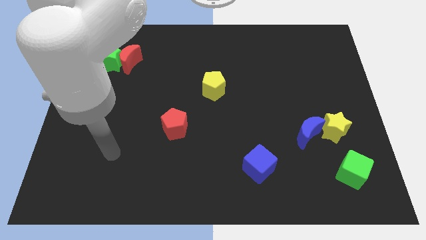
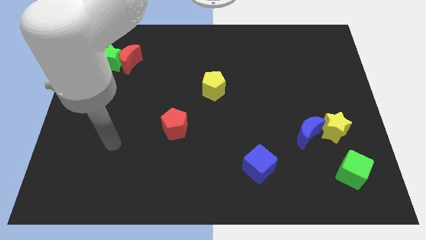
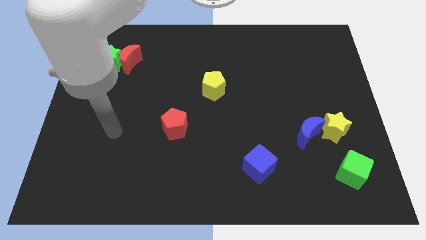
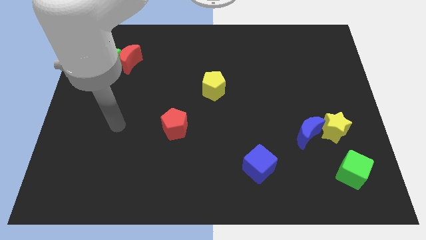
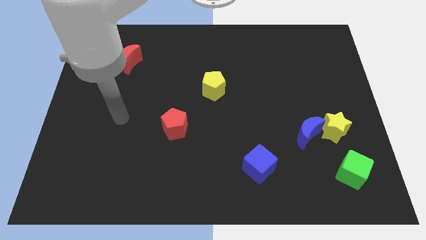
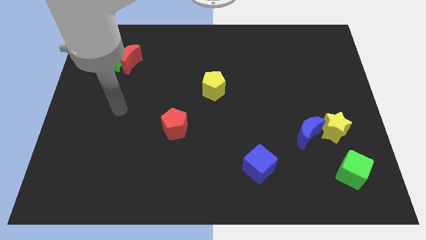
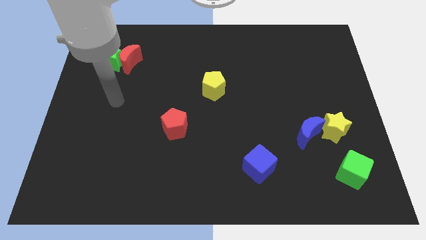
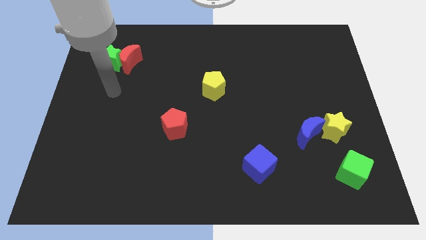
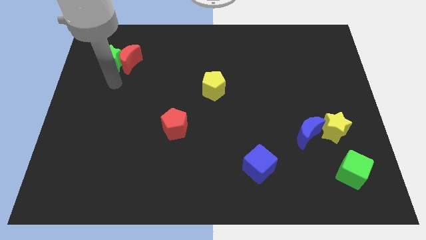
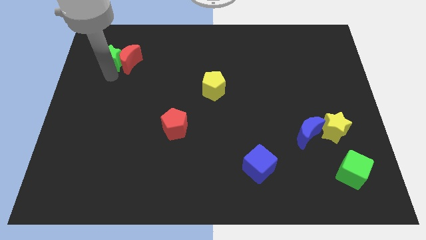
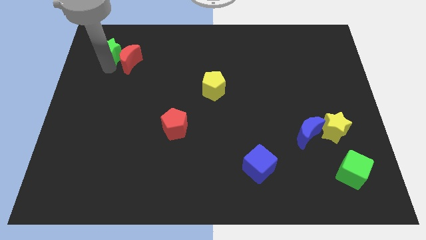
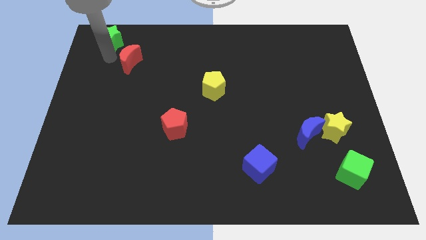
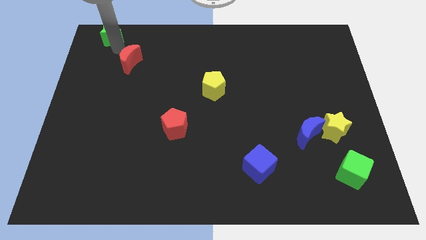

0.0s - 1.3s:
move the red moon away from the green star

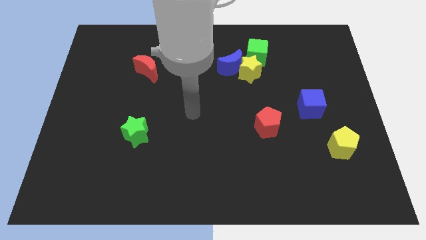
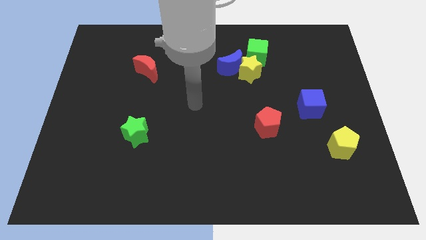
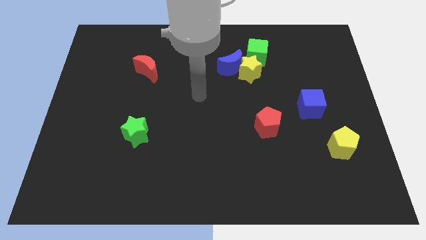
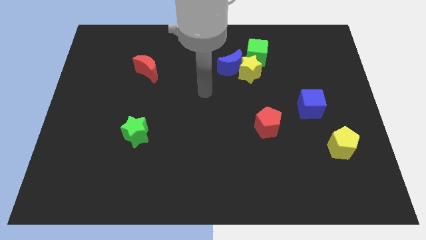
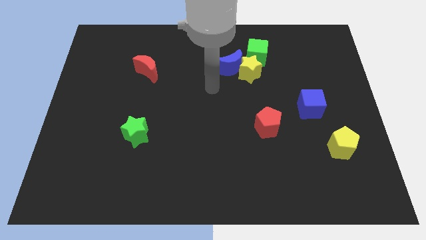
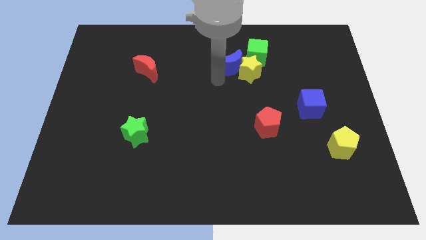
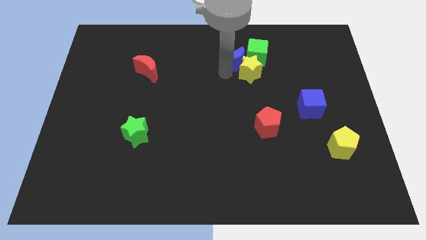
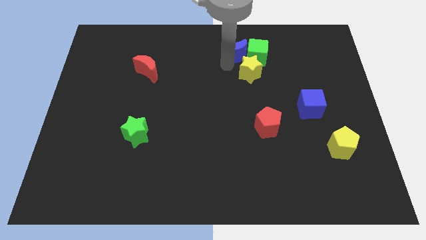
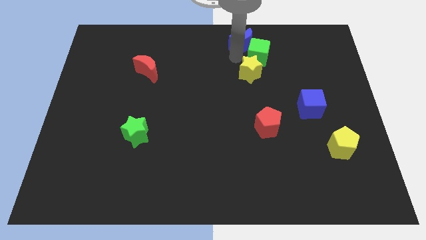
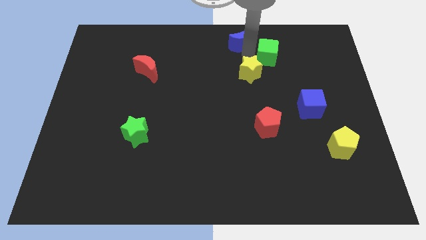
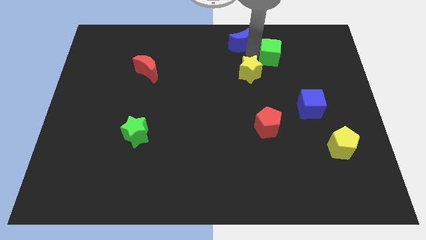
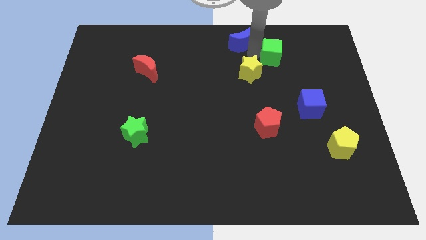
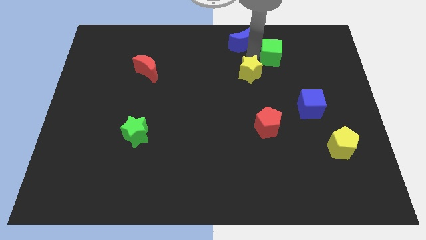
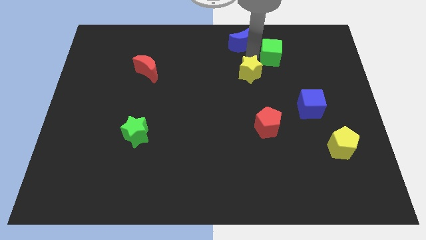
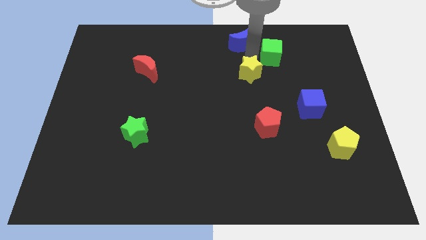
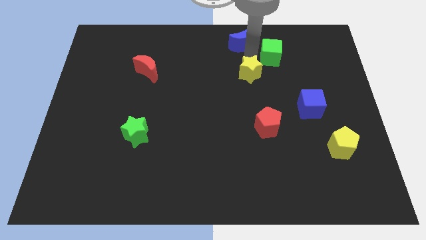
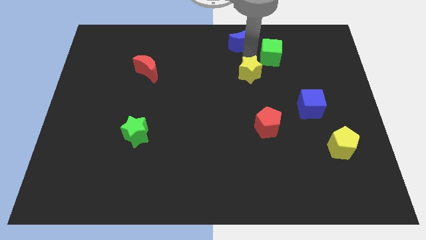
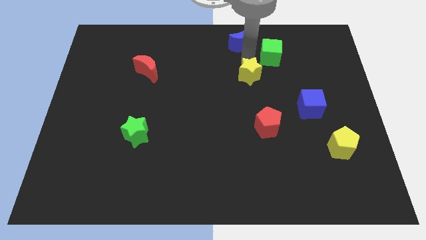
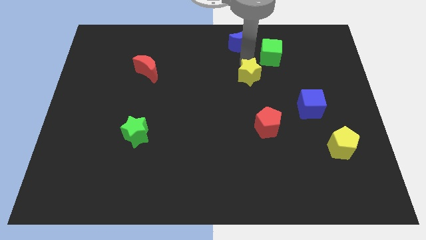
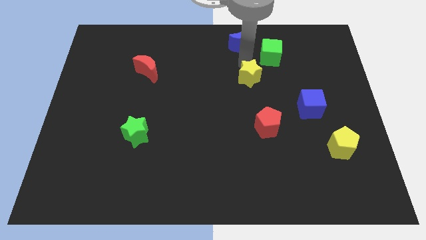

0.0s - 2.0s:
move the yellow star away from the blue moon and green cube

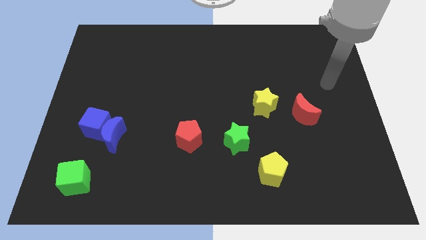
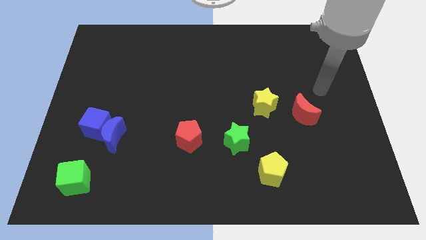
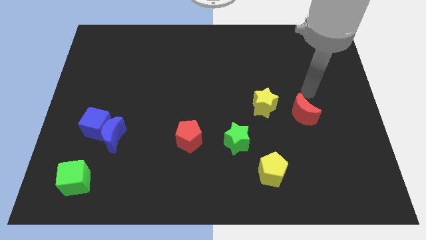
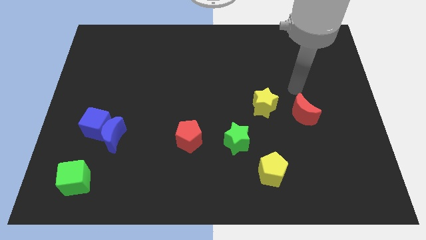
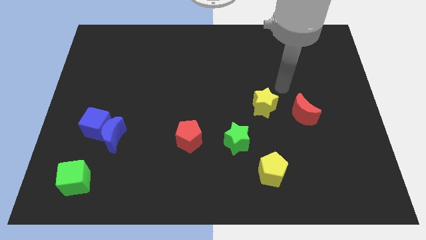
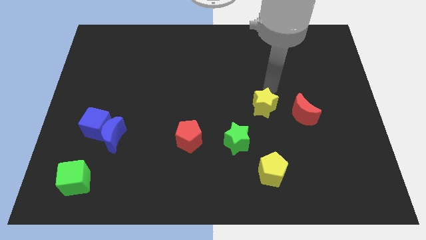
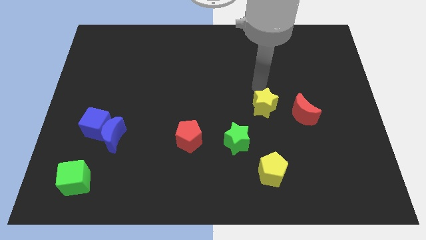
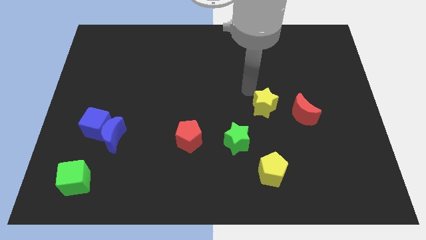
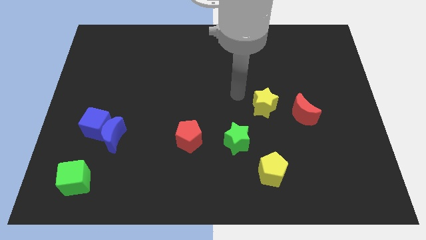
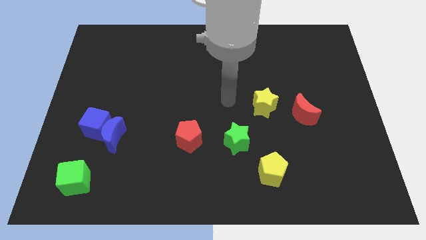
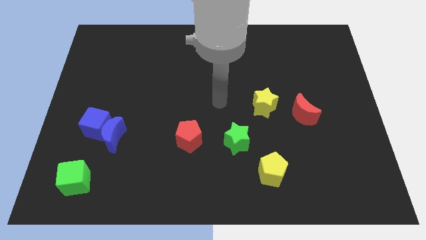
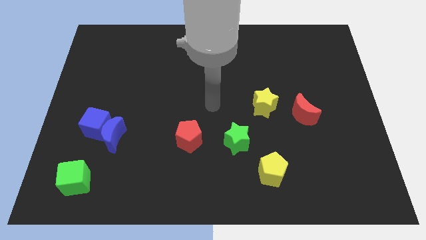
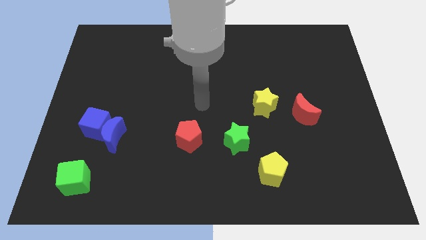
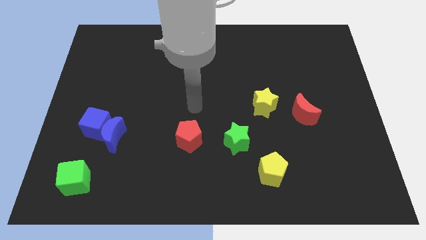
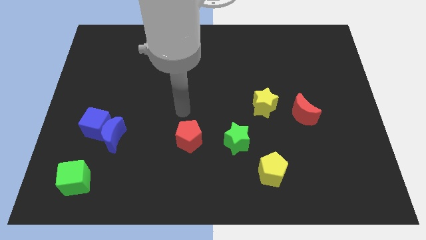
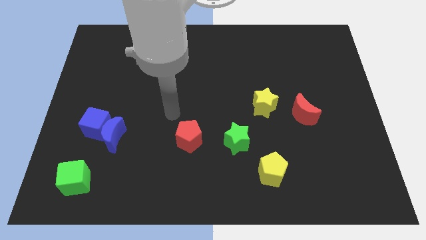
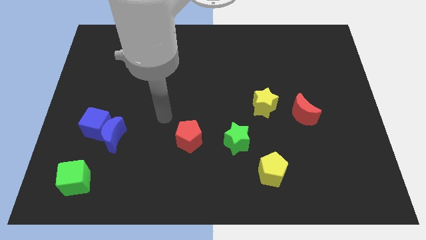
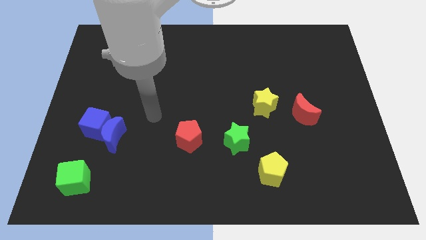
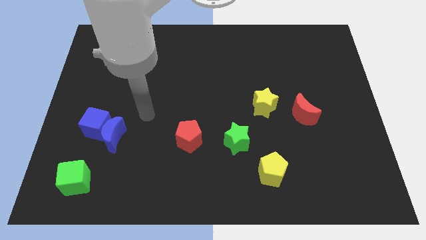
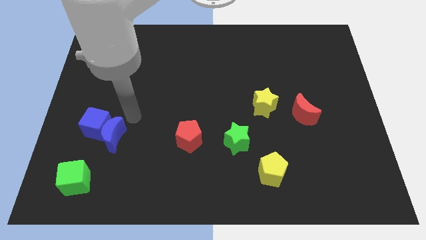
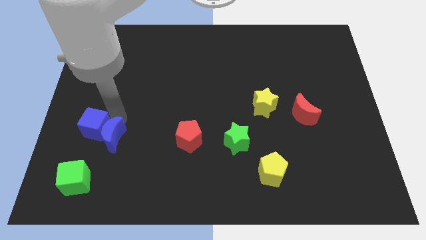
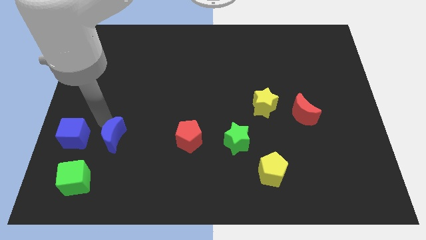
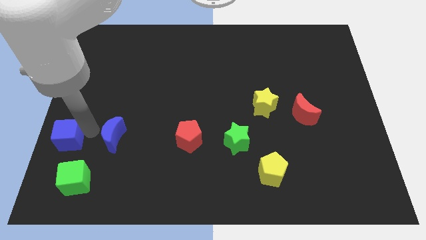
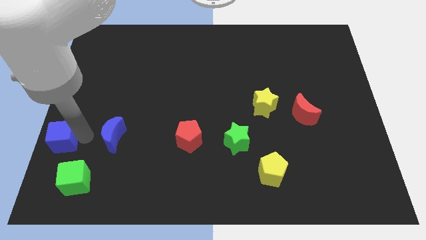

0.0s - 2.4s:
move the blue moon away from the blue cube

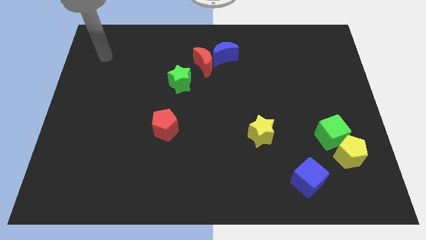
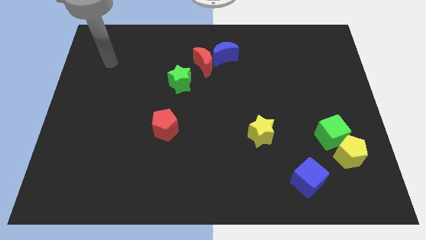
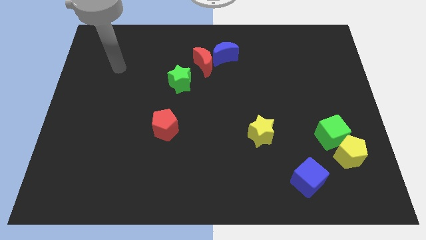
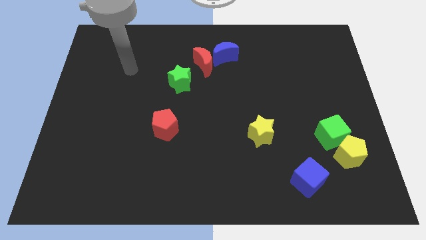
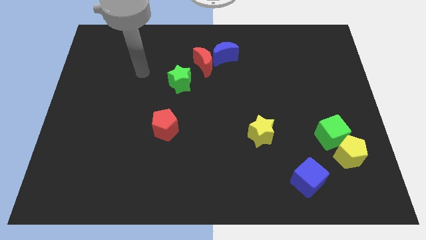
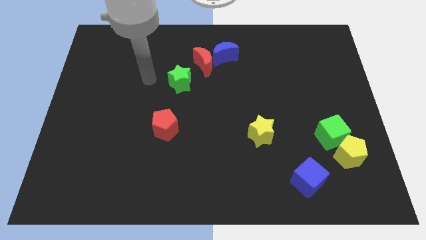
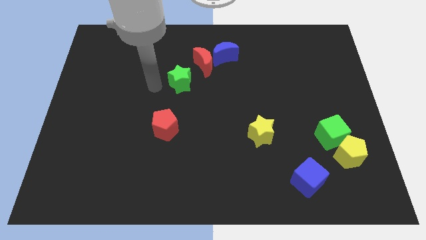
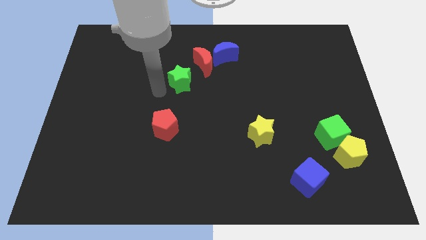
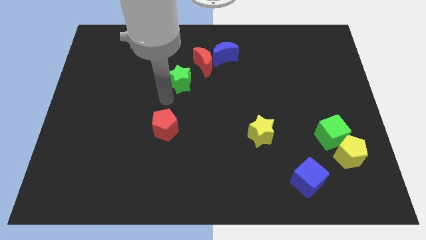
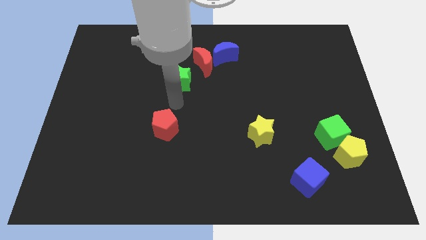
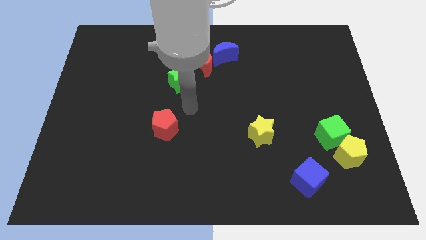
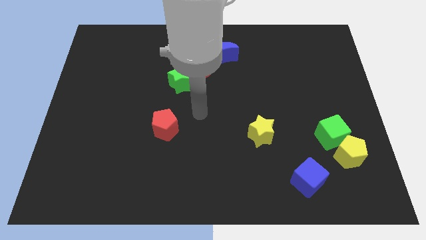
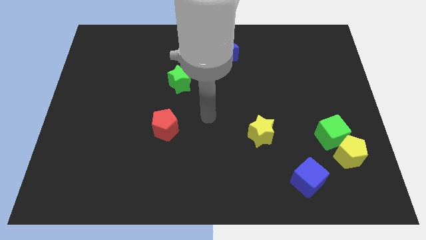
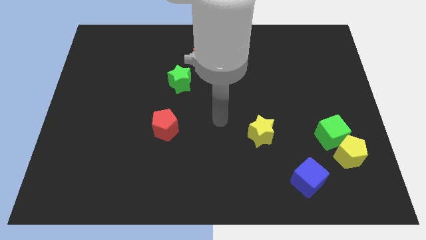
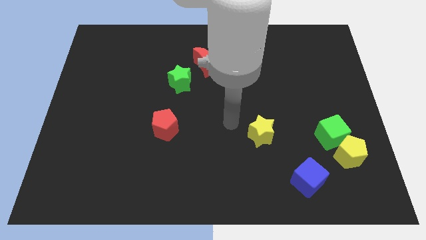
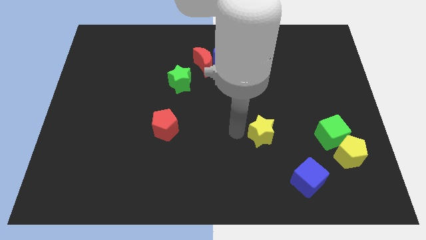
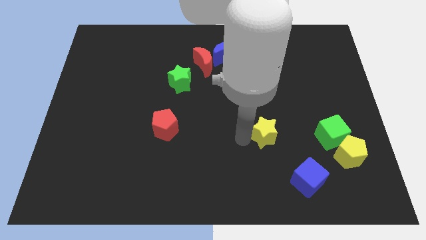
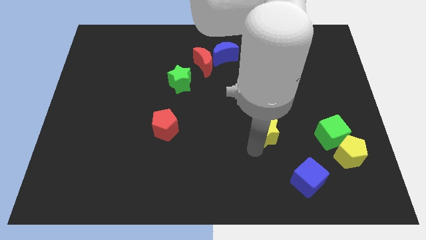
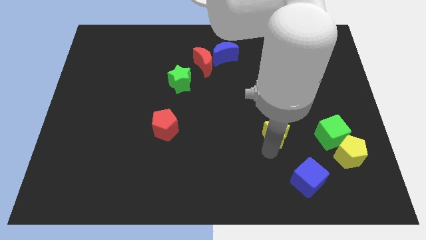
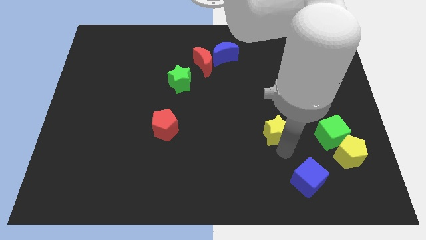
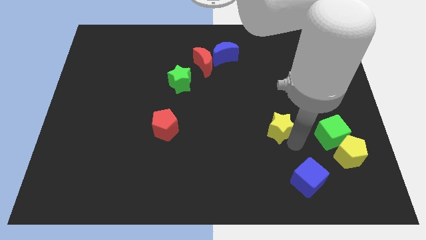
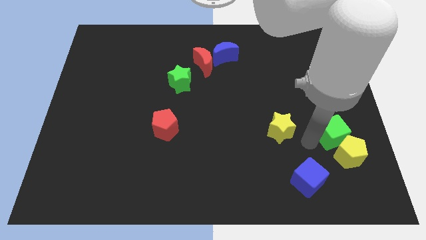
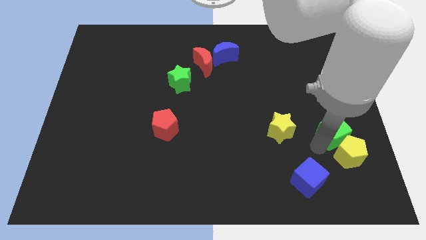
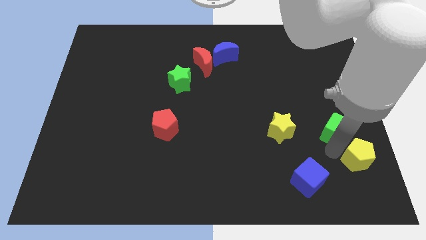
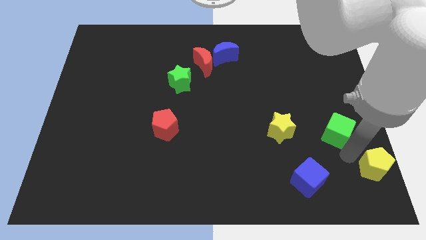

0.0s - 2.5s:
pull the green cube apart from the yellow pentagon

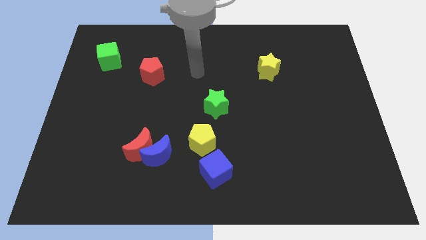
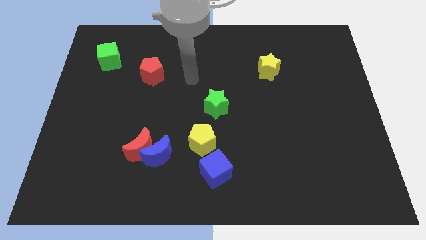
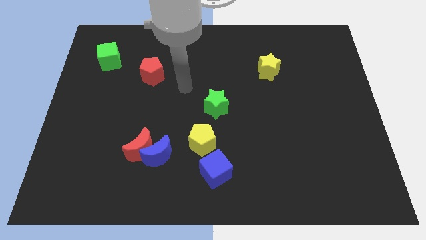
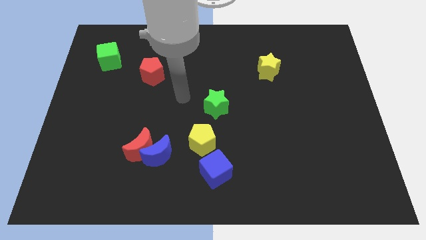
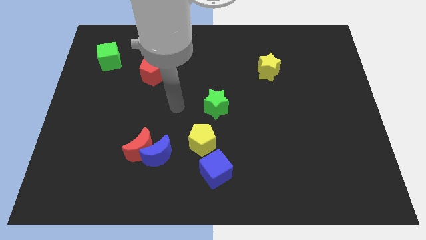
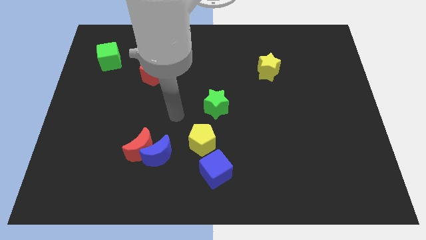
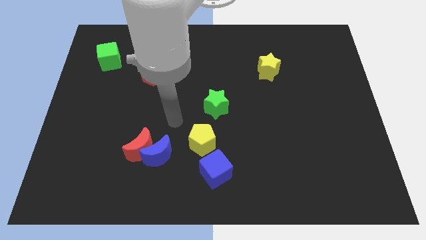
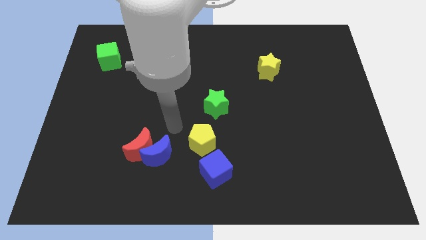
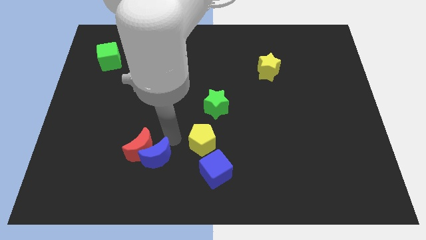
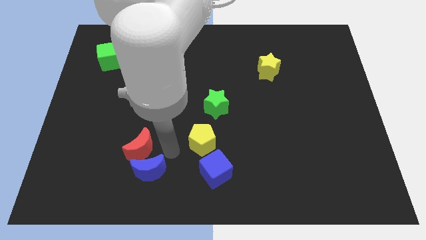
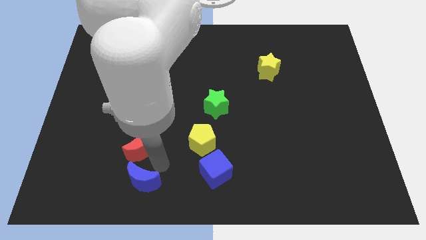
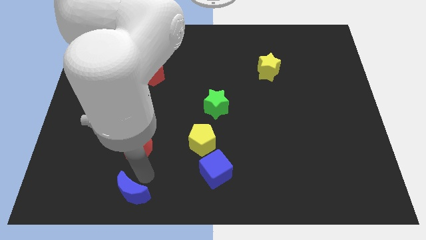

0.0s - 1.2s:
move the red moon away from the blue moon
